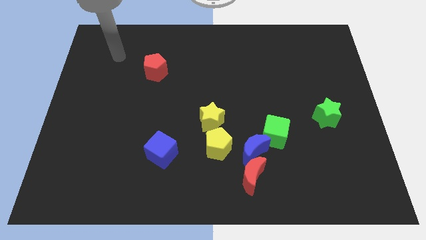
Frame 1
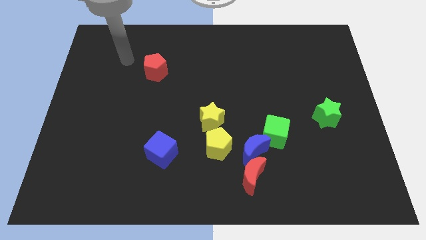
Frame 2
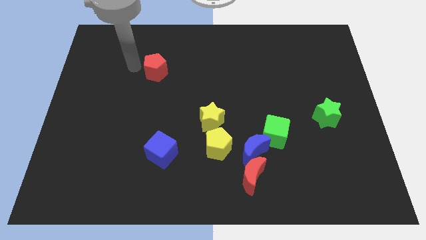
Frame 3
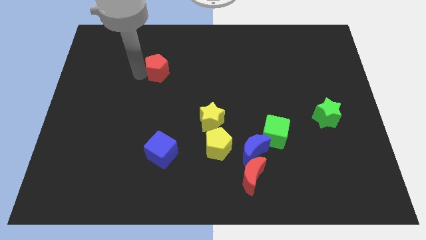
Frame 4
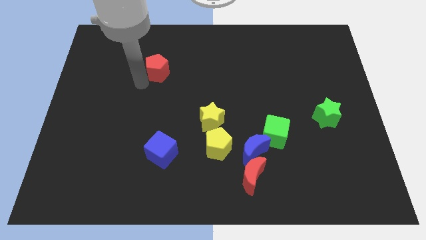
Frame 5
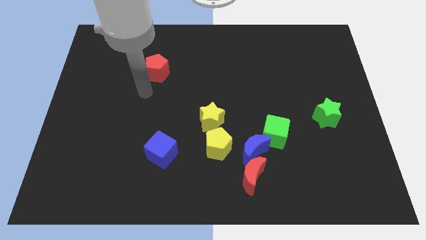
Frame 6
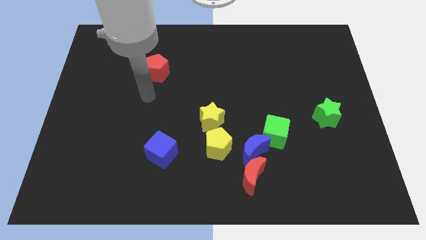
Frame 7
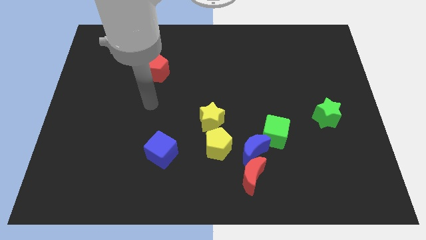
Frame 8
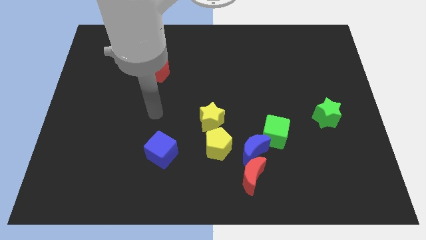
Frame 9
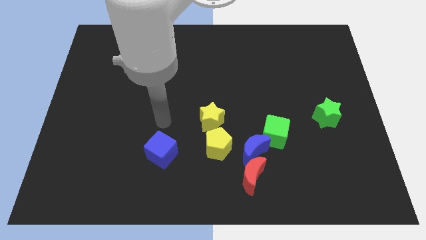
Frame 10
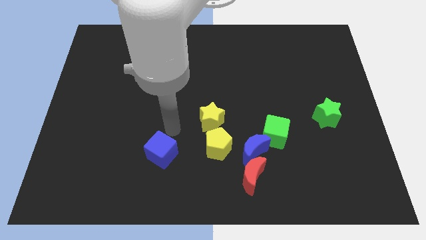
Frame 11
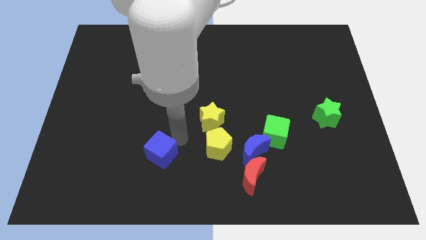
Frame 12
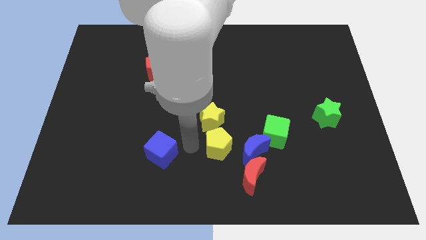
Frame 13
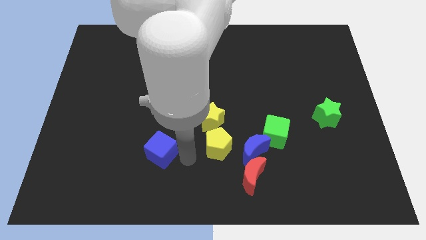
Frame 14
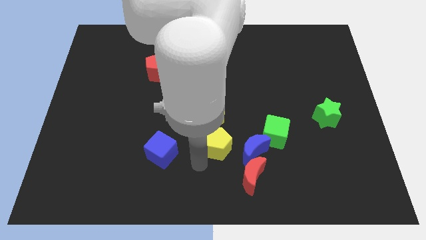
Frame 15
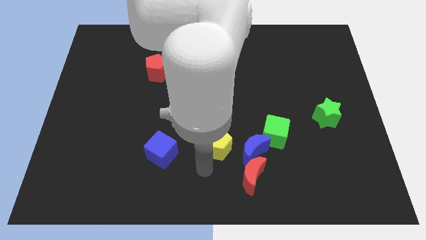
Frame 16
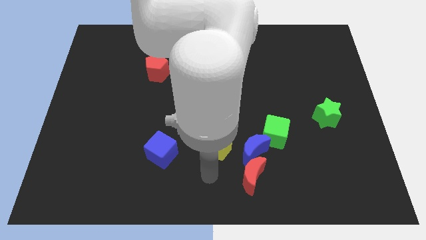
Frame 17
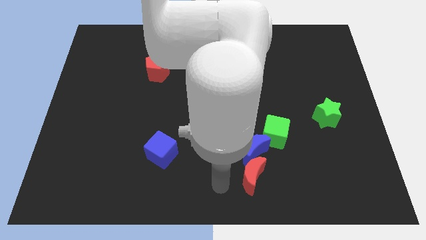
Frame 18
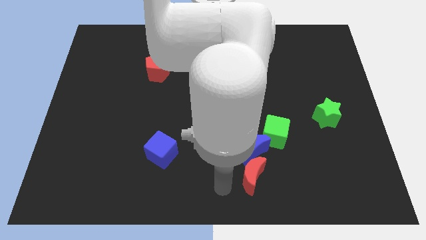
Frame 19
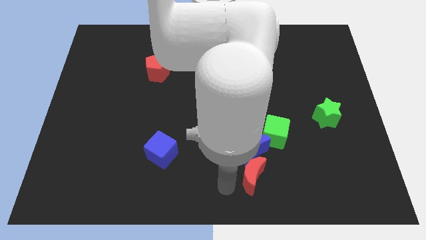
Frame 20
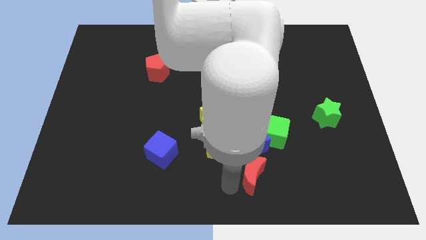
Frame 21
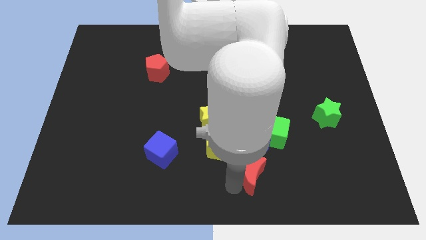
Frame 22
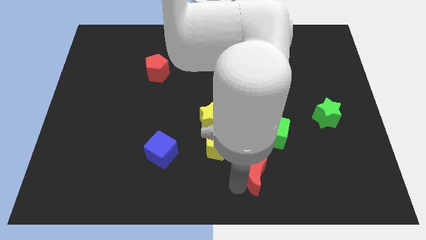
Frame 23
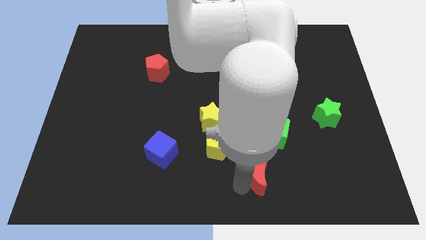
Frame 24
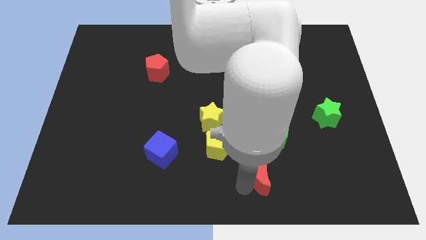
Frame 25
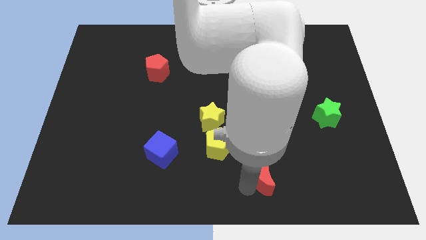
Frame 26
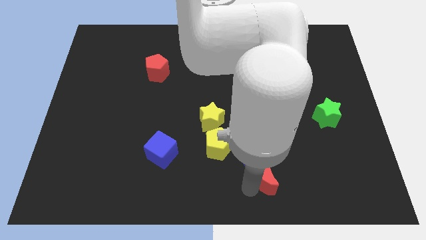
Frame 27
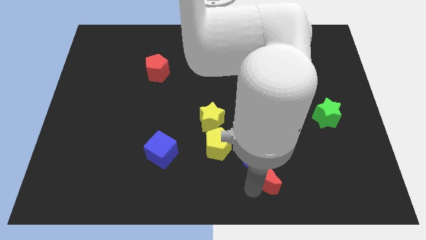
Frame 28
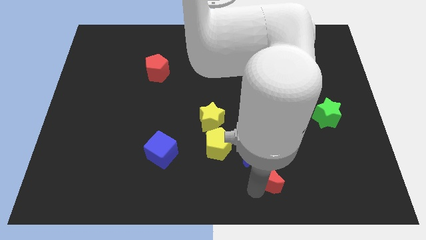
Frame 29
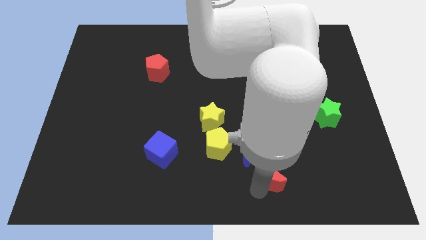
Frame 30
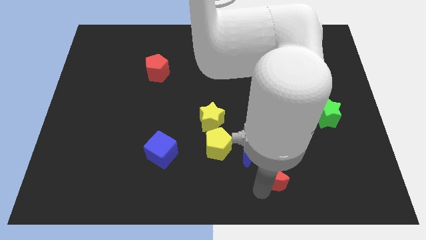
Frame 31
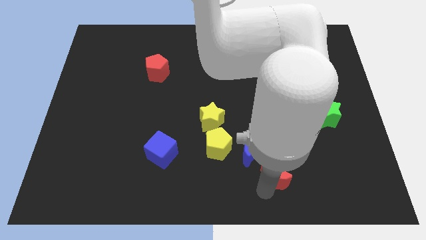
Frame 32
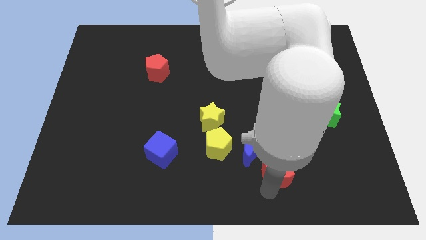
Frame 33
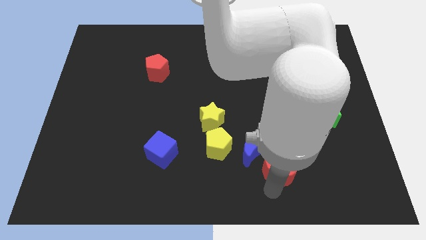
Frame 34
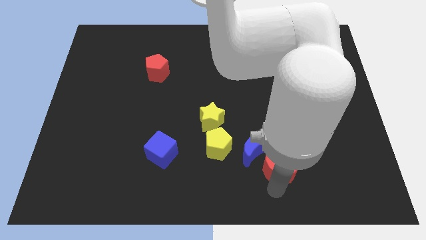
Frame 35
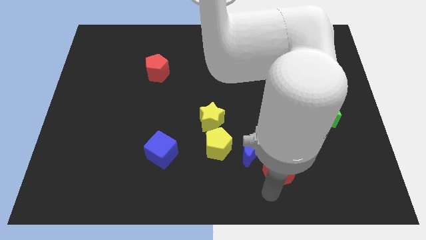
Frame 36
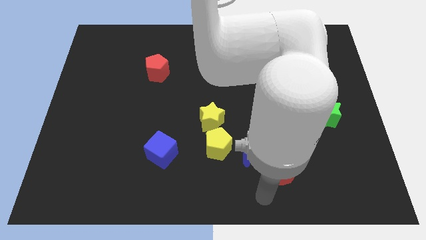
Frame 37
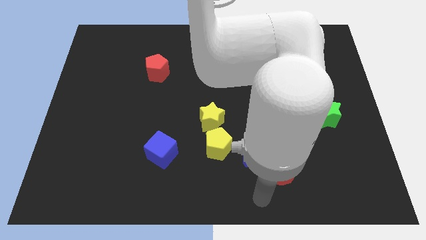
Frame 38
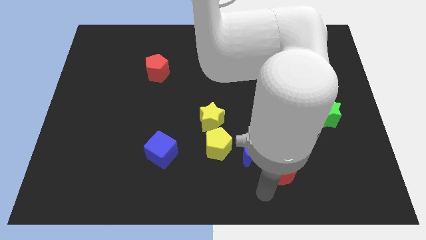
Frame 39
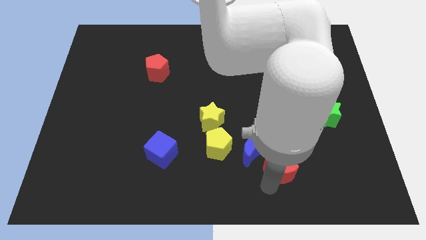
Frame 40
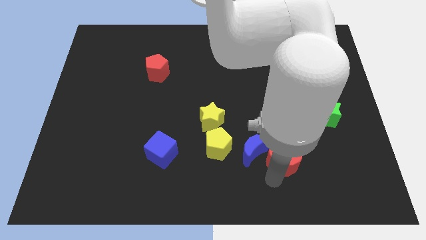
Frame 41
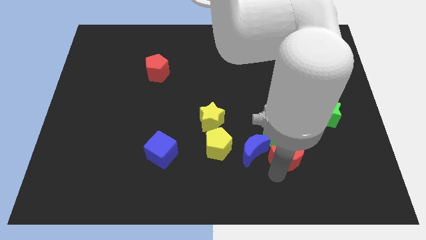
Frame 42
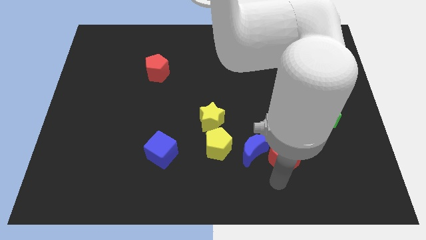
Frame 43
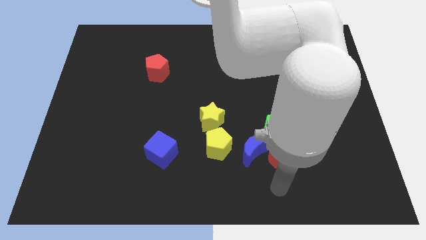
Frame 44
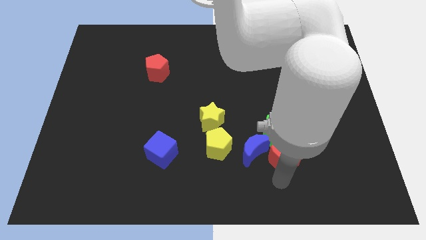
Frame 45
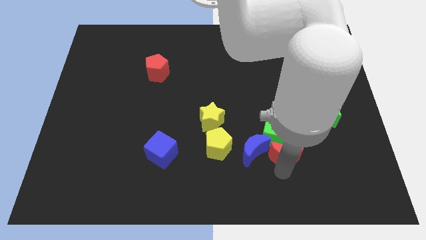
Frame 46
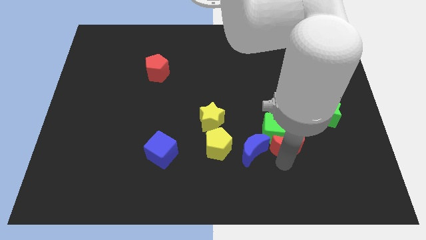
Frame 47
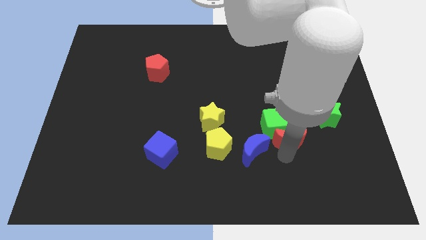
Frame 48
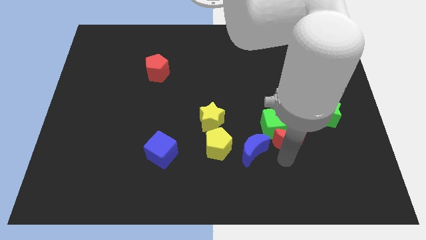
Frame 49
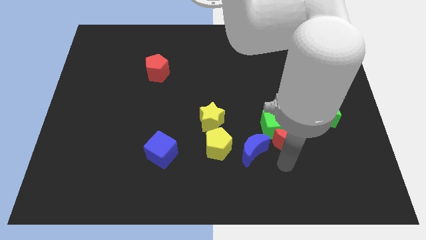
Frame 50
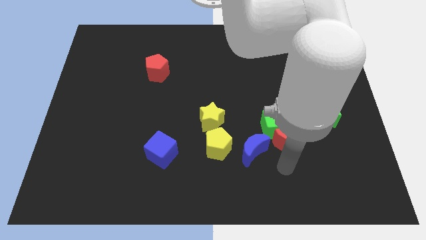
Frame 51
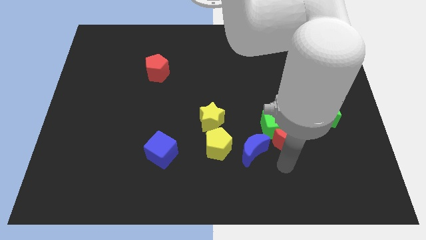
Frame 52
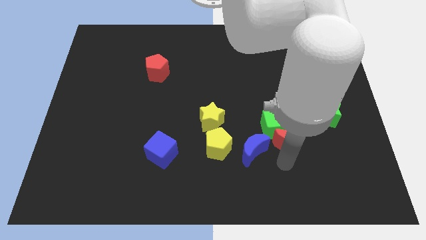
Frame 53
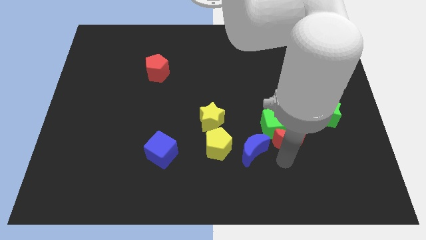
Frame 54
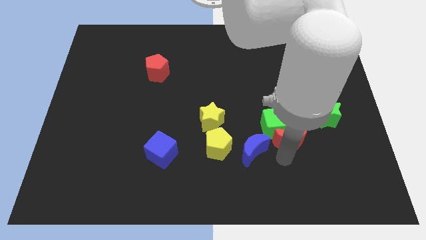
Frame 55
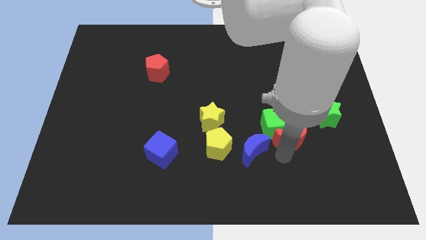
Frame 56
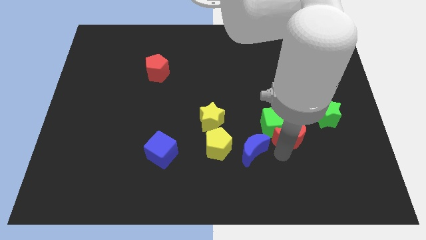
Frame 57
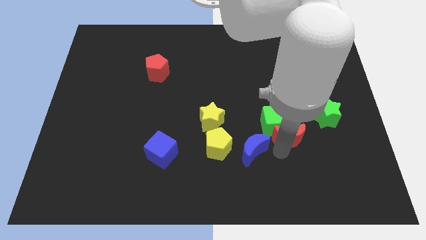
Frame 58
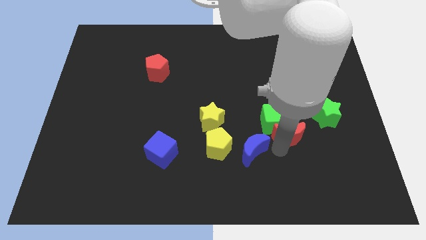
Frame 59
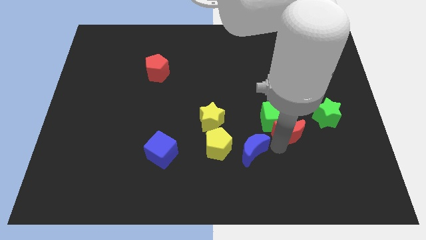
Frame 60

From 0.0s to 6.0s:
slightly push the red moon upwards

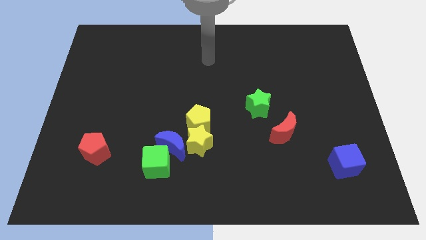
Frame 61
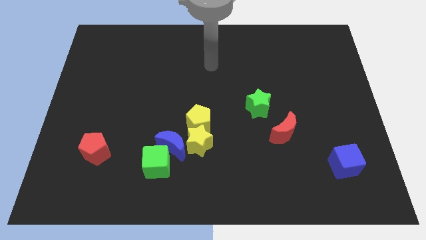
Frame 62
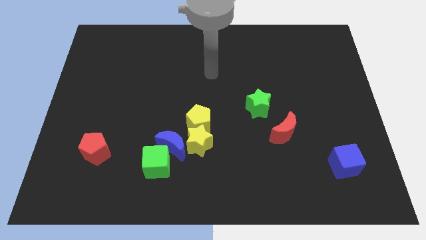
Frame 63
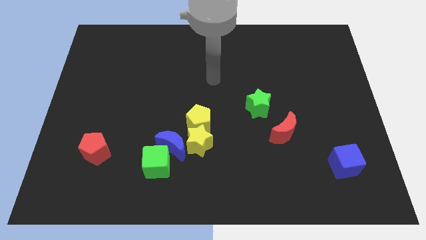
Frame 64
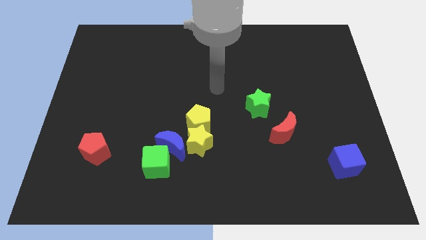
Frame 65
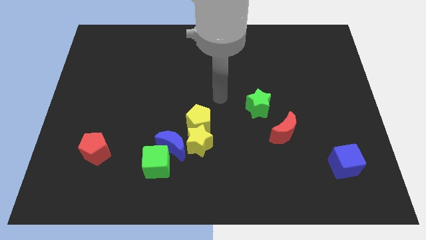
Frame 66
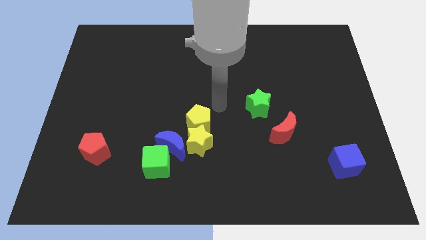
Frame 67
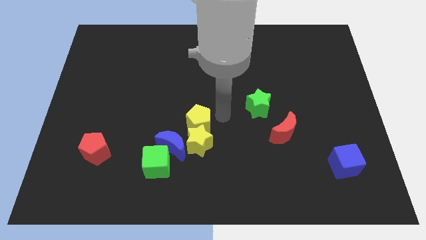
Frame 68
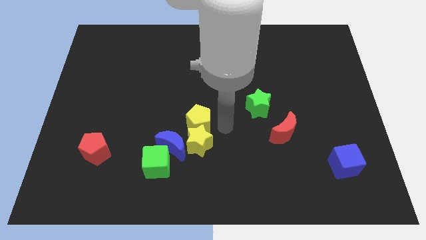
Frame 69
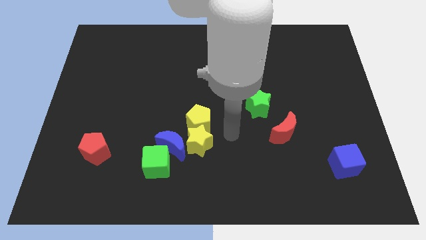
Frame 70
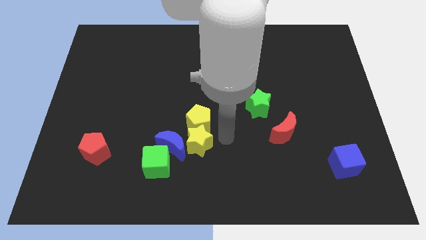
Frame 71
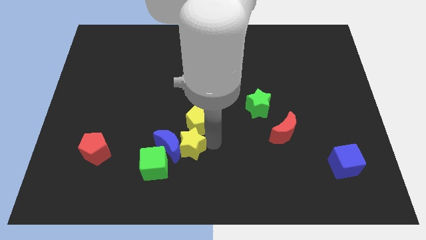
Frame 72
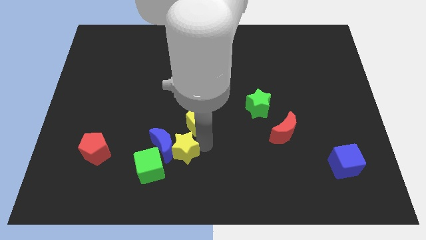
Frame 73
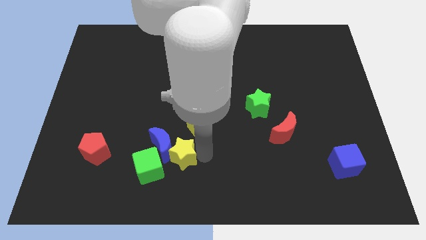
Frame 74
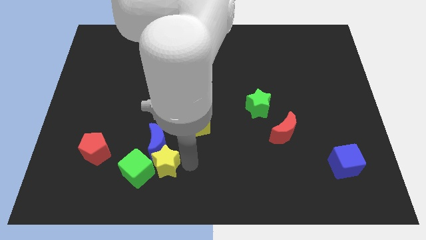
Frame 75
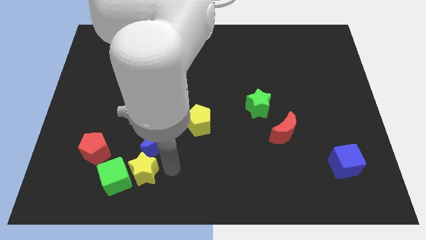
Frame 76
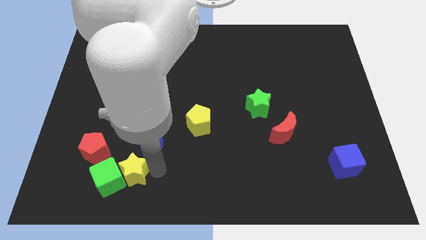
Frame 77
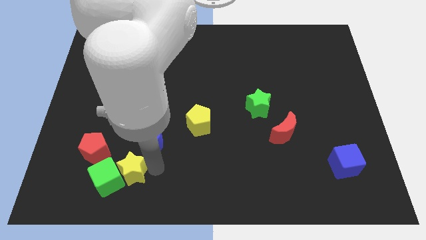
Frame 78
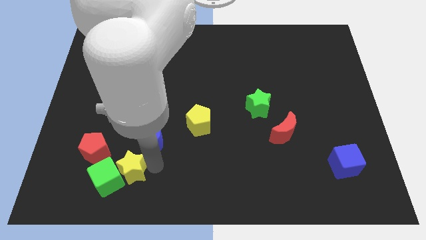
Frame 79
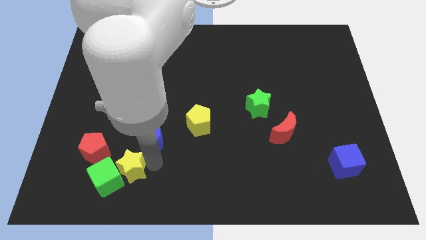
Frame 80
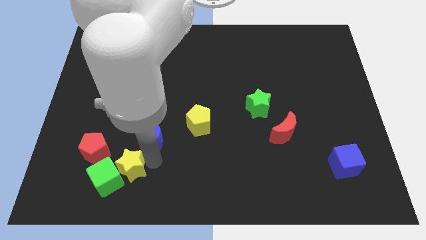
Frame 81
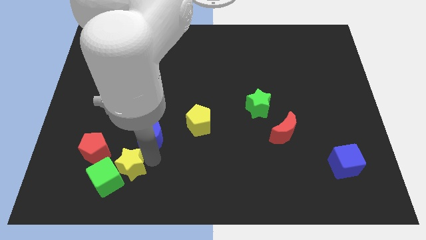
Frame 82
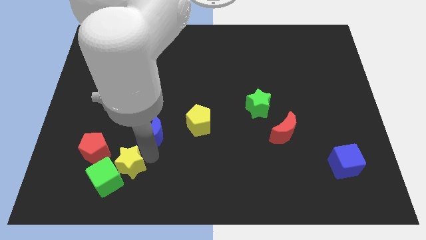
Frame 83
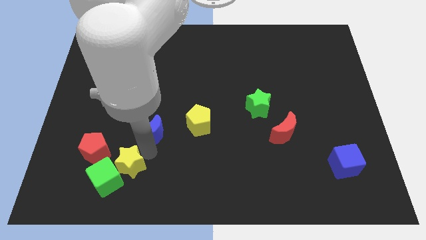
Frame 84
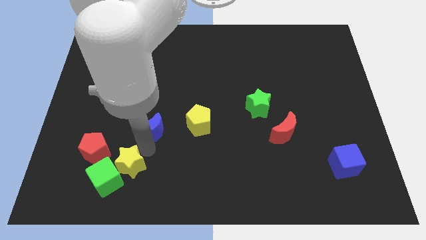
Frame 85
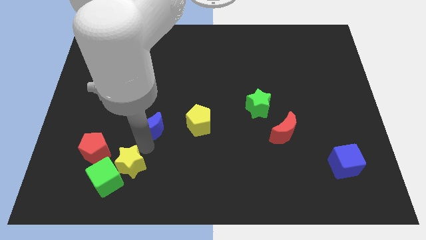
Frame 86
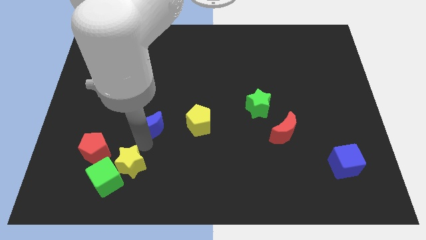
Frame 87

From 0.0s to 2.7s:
slide the blue moon slightly upwards and to the left
